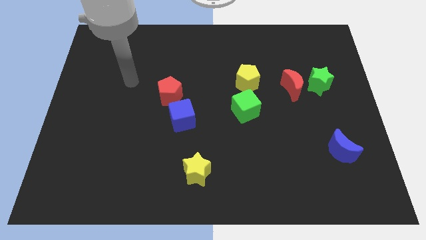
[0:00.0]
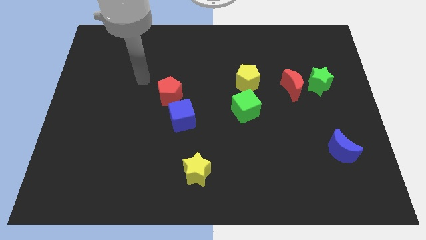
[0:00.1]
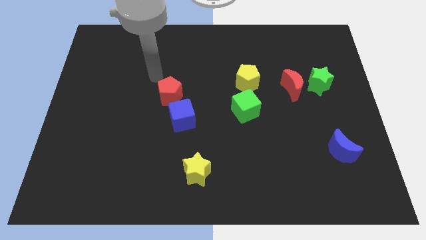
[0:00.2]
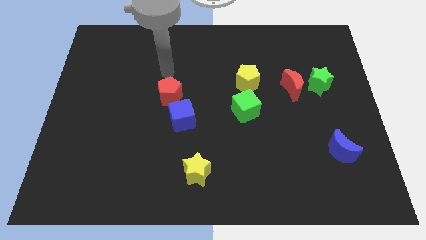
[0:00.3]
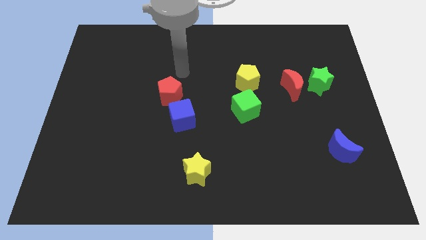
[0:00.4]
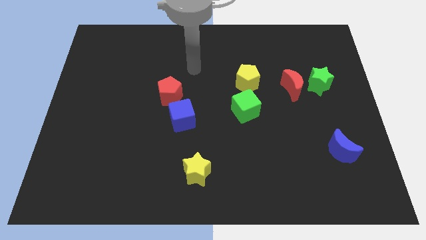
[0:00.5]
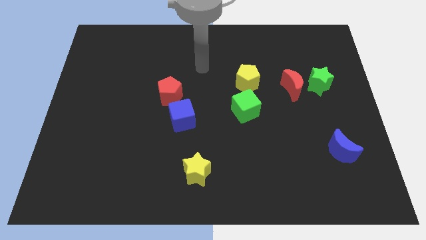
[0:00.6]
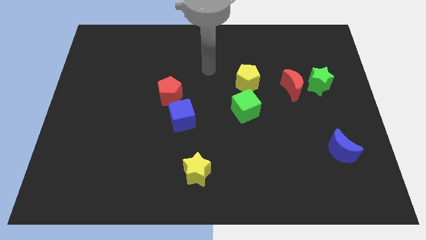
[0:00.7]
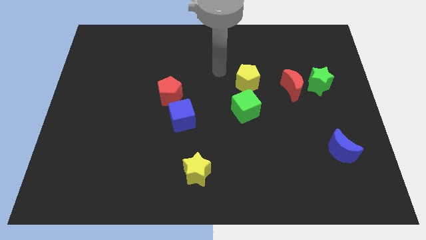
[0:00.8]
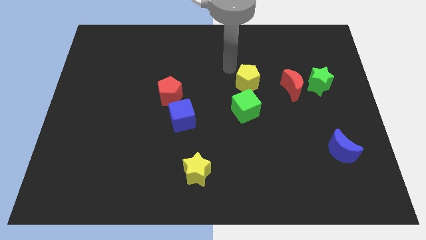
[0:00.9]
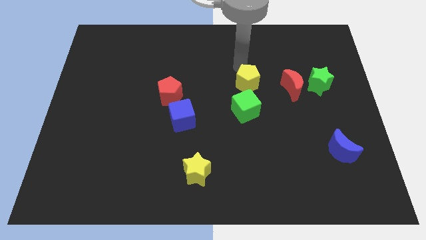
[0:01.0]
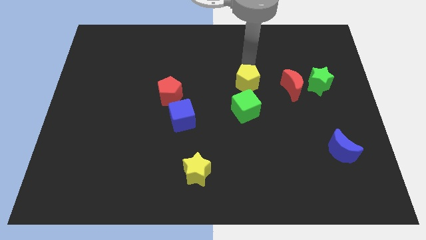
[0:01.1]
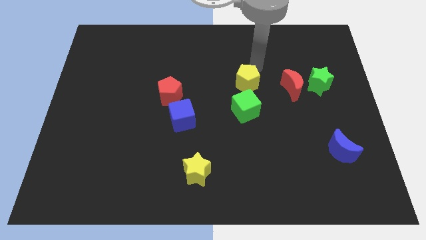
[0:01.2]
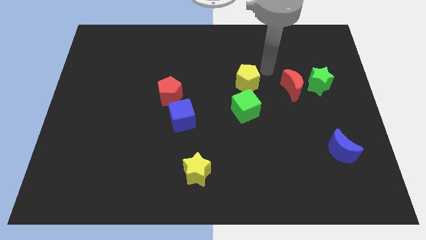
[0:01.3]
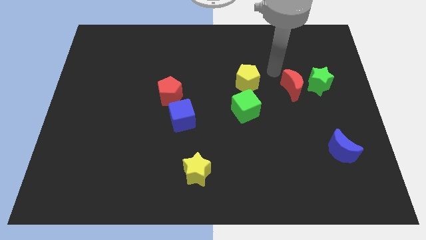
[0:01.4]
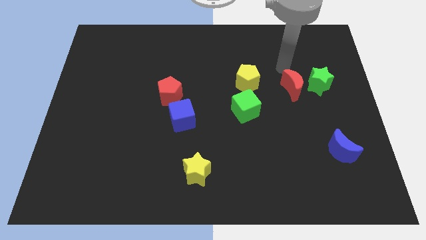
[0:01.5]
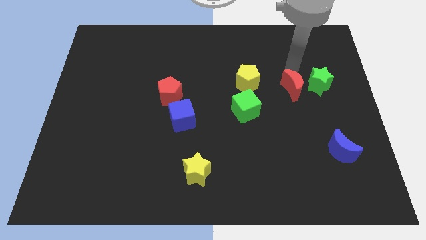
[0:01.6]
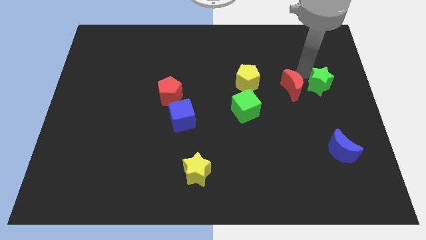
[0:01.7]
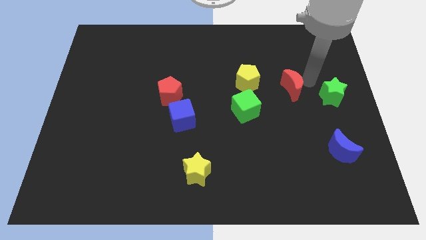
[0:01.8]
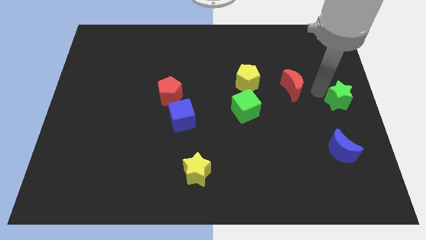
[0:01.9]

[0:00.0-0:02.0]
separate the red moon from the green star

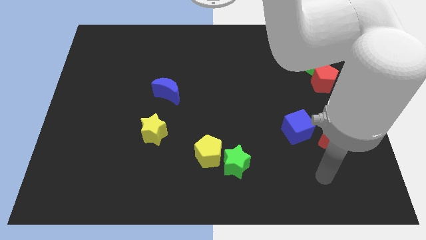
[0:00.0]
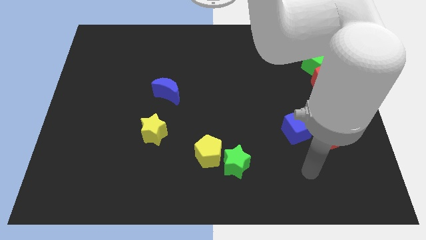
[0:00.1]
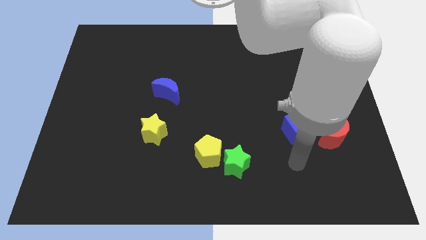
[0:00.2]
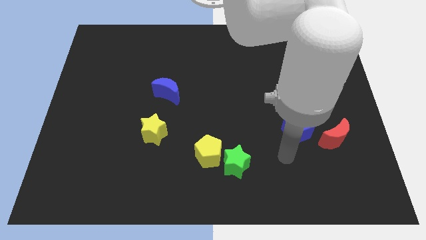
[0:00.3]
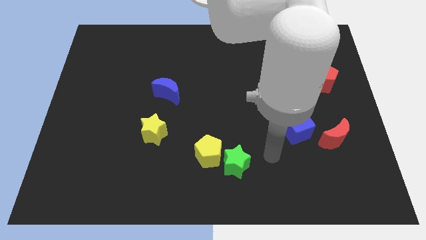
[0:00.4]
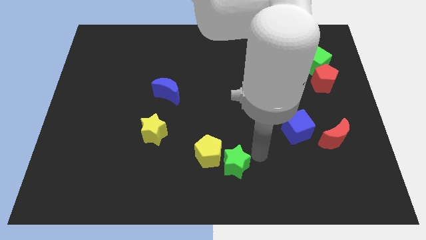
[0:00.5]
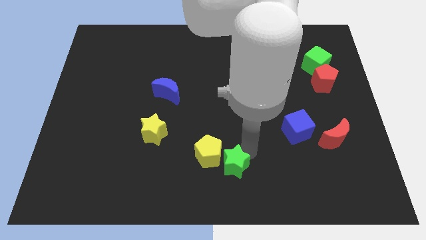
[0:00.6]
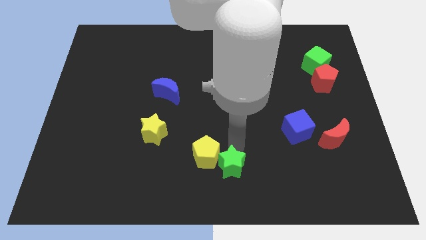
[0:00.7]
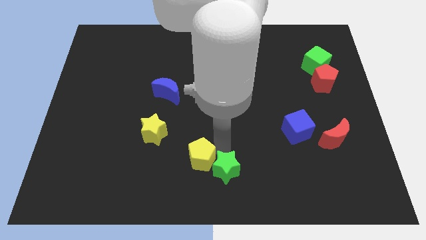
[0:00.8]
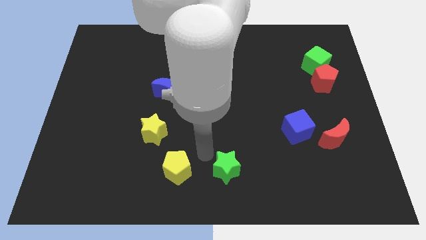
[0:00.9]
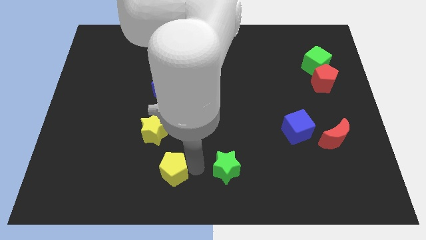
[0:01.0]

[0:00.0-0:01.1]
separate the green star from the yellow pentagon

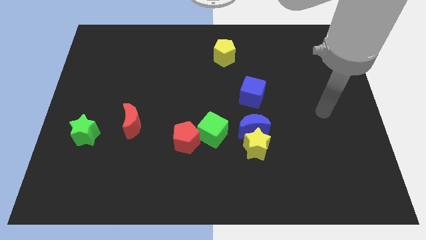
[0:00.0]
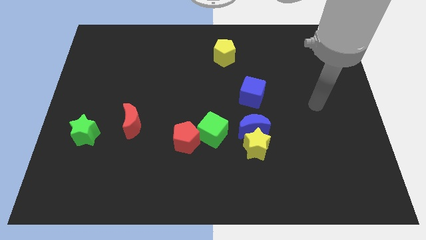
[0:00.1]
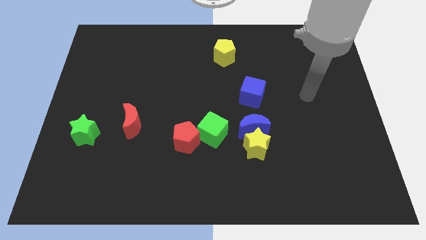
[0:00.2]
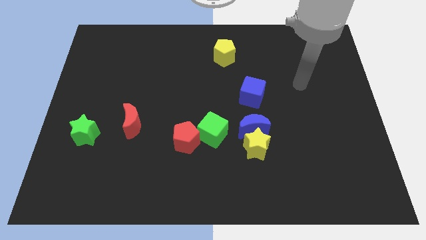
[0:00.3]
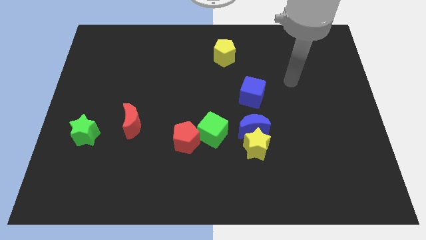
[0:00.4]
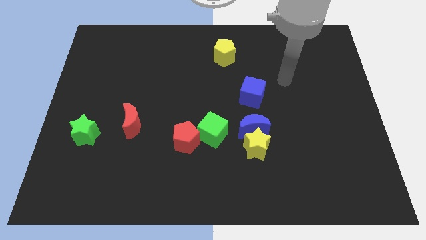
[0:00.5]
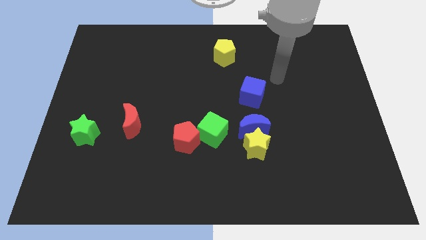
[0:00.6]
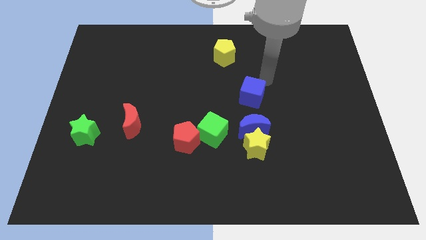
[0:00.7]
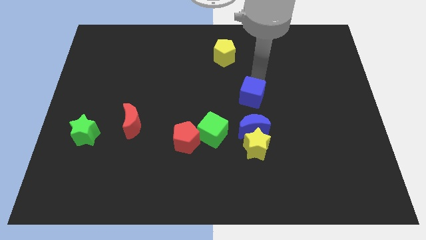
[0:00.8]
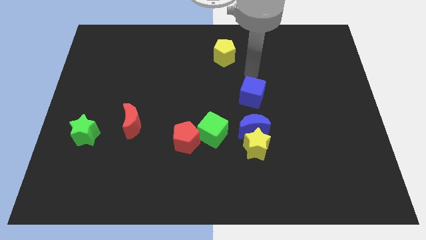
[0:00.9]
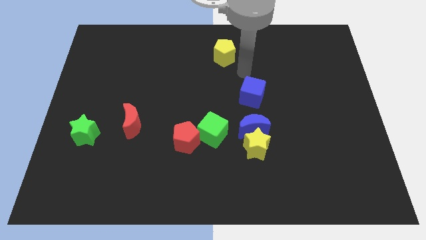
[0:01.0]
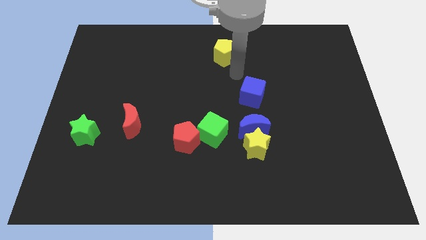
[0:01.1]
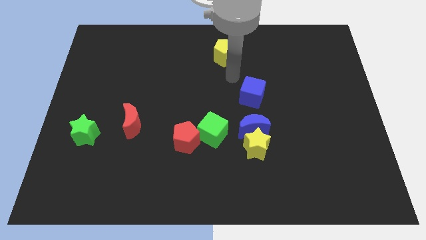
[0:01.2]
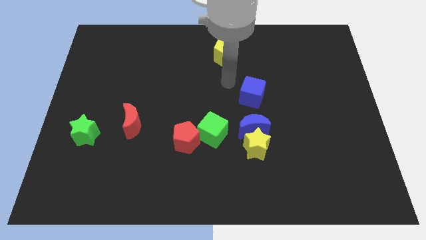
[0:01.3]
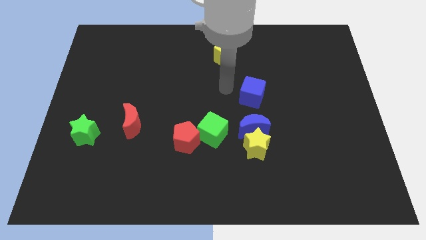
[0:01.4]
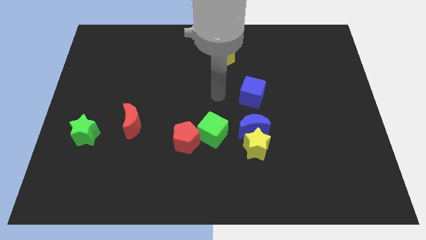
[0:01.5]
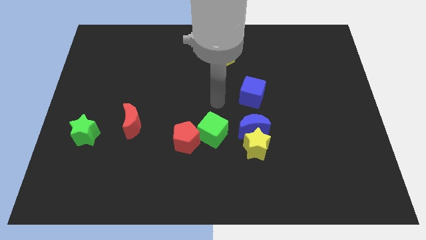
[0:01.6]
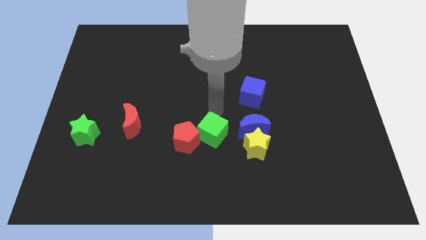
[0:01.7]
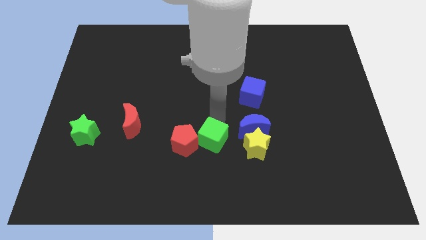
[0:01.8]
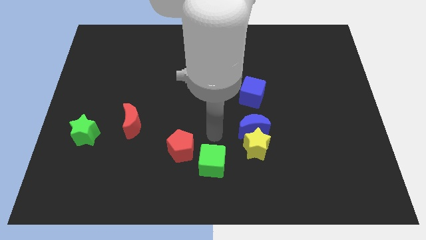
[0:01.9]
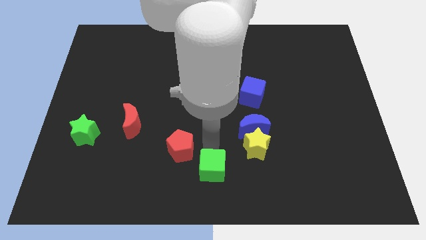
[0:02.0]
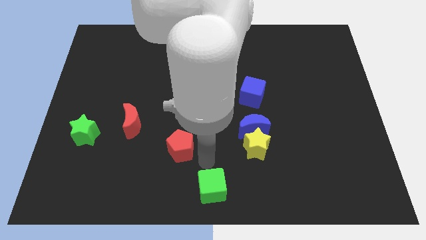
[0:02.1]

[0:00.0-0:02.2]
move the red pentagon away from the green cube

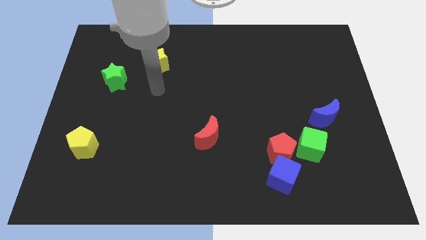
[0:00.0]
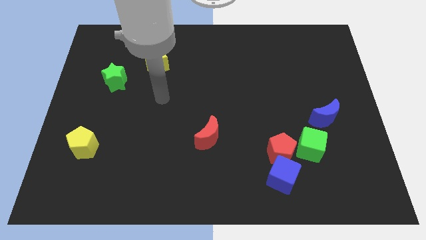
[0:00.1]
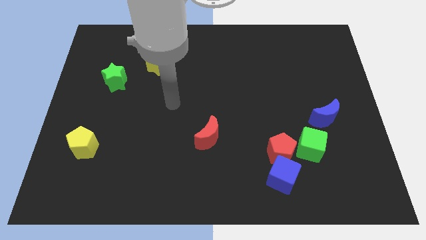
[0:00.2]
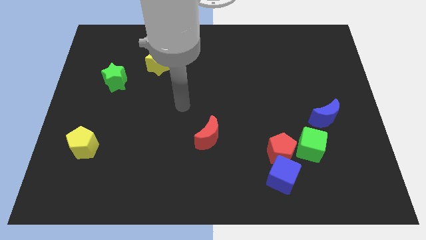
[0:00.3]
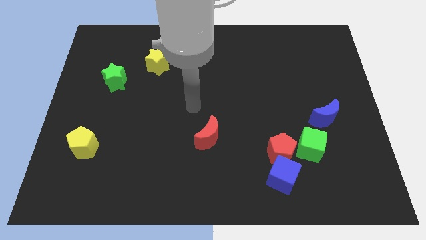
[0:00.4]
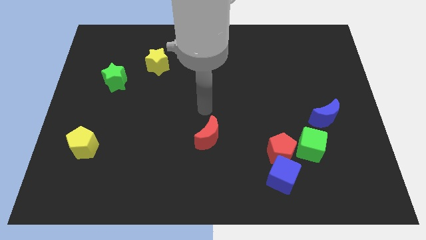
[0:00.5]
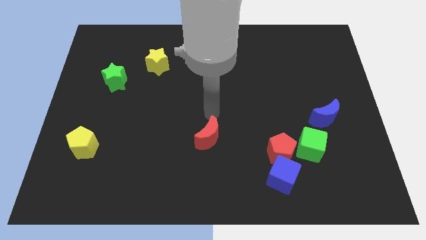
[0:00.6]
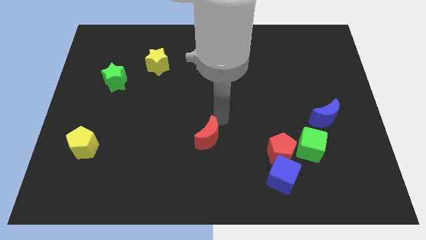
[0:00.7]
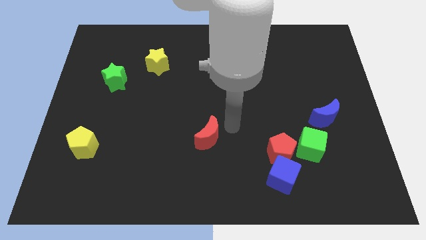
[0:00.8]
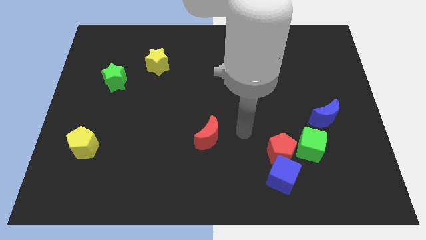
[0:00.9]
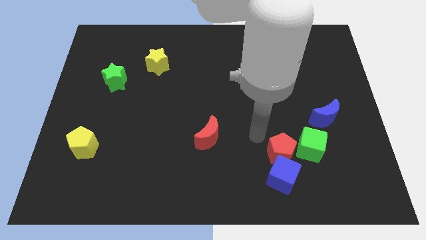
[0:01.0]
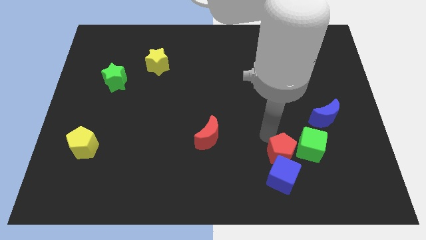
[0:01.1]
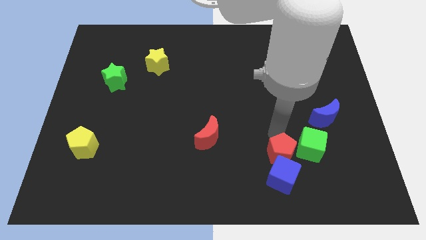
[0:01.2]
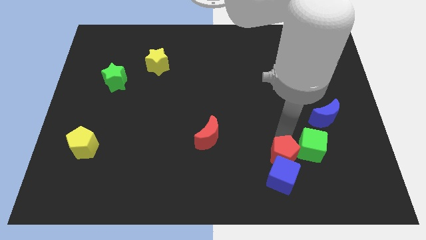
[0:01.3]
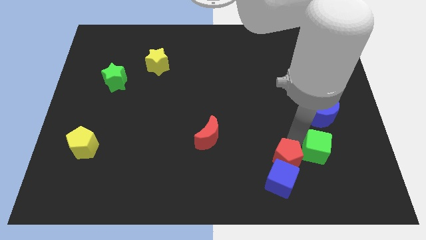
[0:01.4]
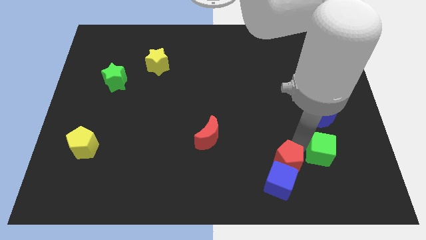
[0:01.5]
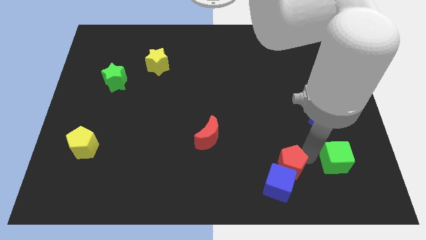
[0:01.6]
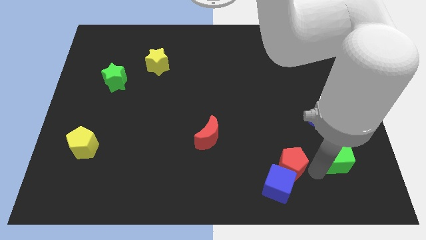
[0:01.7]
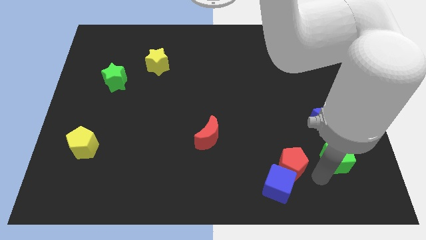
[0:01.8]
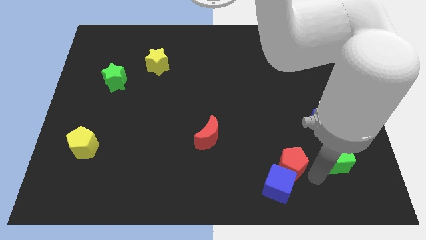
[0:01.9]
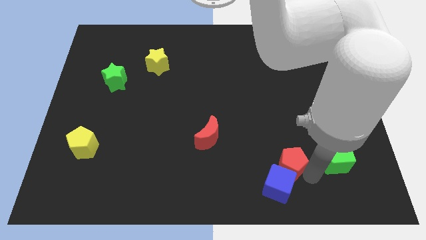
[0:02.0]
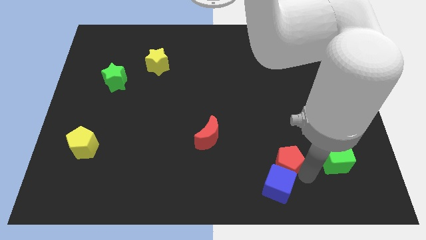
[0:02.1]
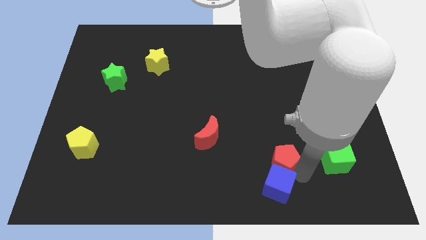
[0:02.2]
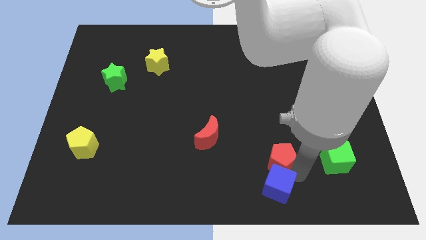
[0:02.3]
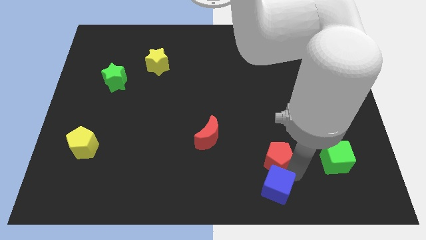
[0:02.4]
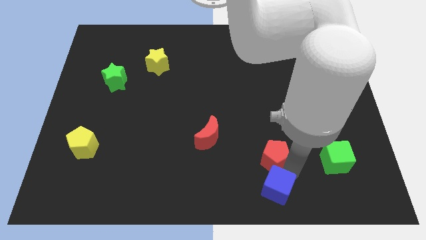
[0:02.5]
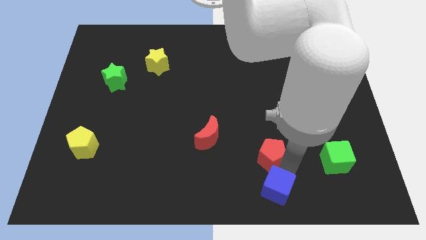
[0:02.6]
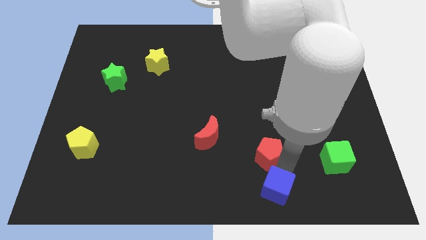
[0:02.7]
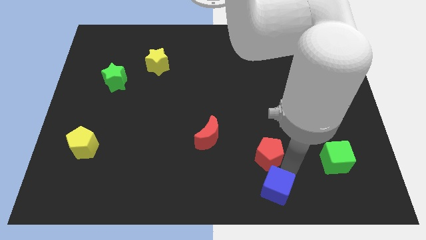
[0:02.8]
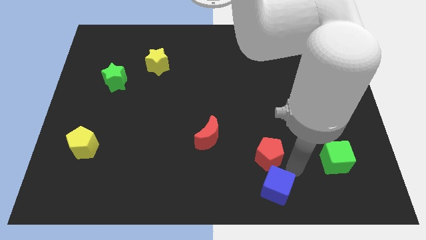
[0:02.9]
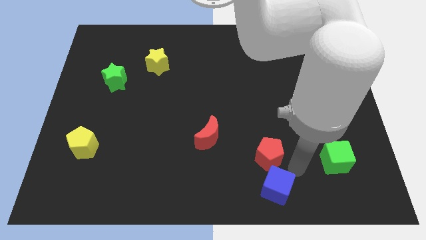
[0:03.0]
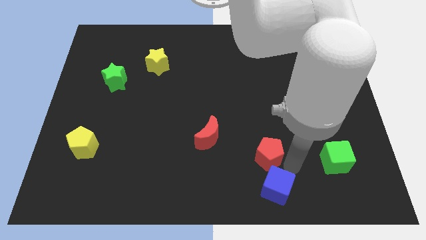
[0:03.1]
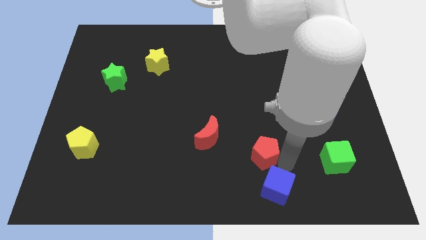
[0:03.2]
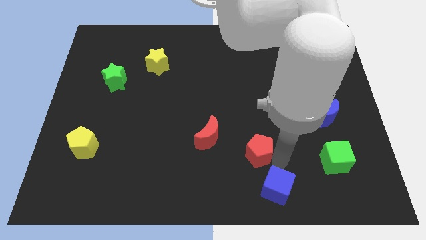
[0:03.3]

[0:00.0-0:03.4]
pull the red pentagon apart from the blue cube and green cube

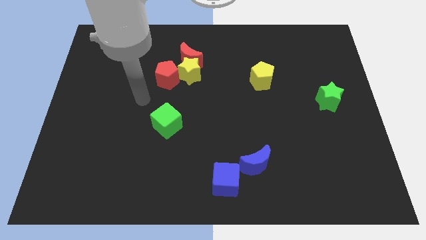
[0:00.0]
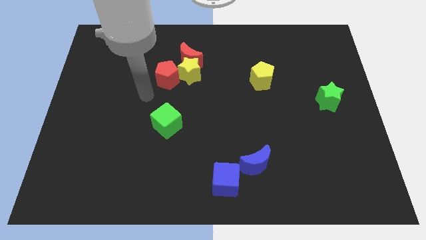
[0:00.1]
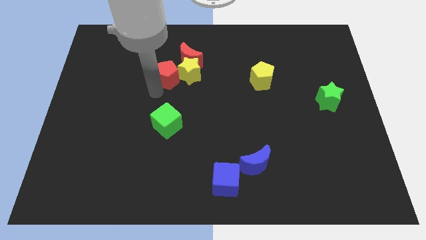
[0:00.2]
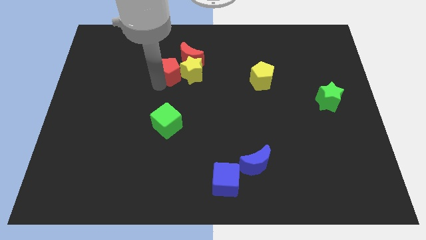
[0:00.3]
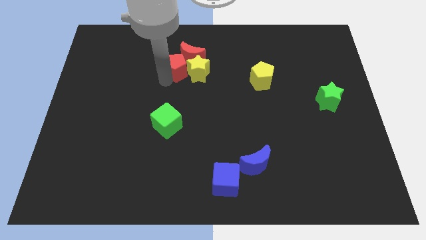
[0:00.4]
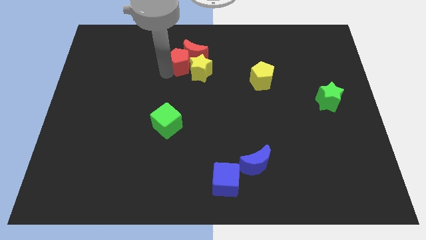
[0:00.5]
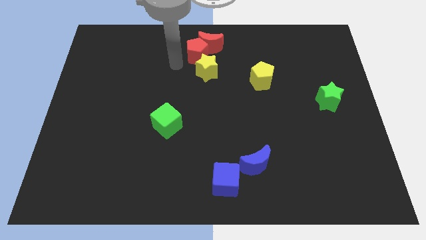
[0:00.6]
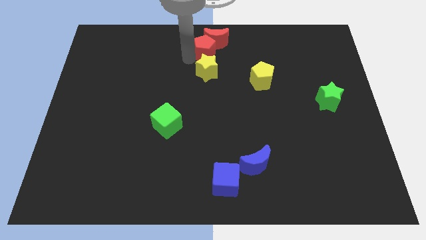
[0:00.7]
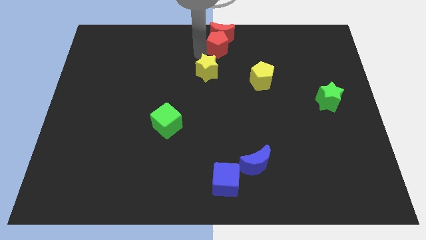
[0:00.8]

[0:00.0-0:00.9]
pull the yellow star apart from the red moon and red pentagon
